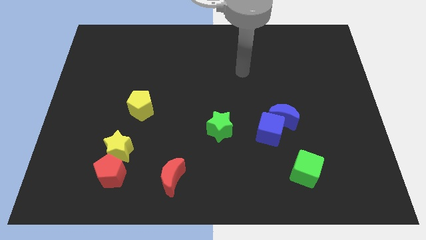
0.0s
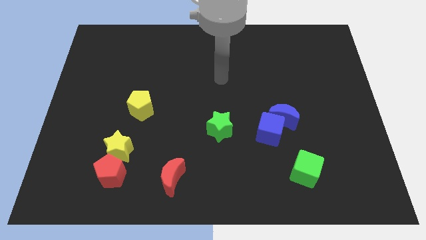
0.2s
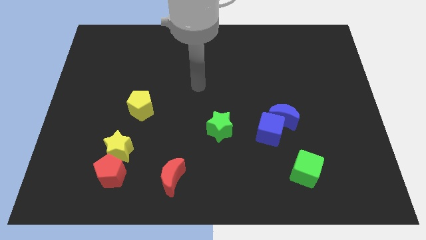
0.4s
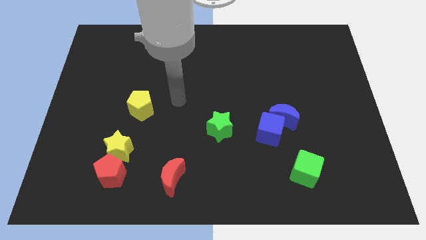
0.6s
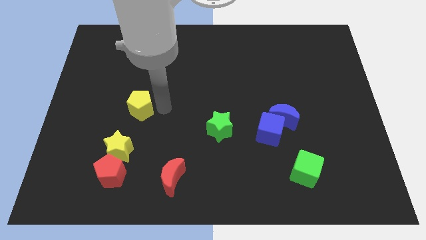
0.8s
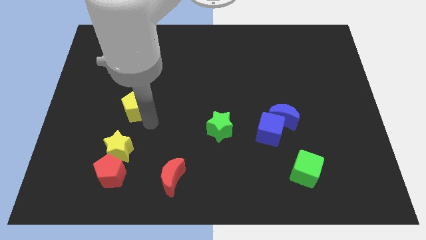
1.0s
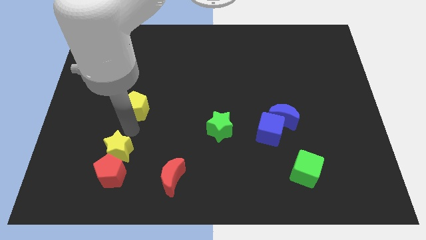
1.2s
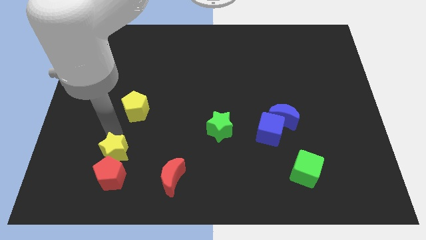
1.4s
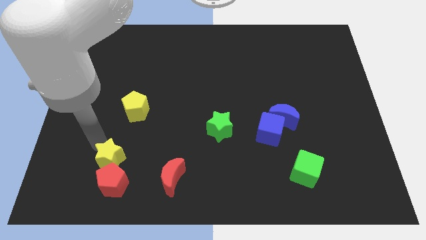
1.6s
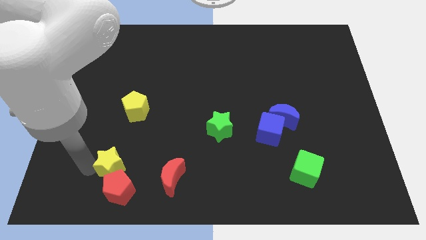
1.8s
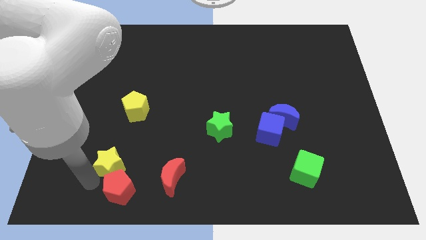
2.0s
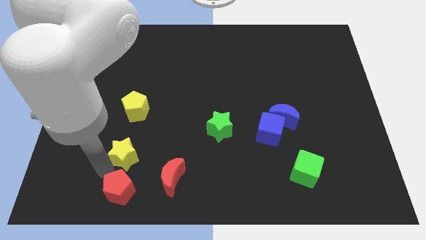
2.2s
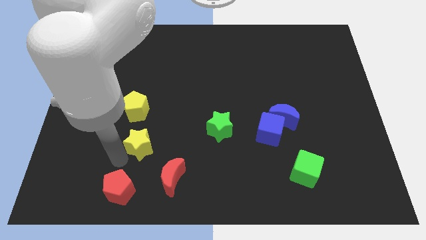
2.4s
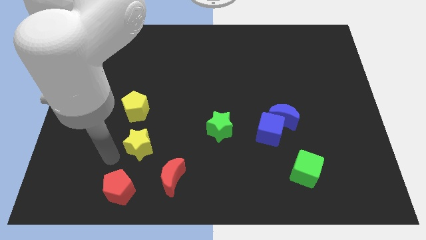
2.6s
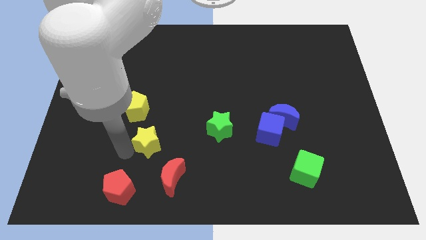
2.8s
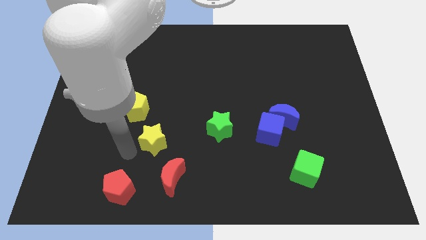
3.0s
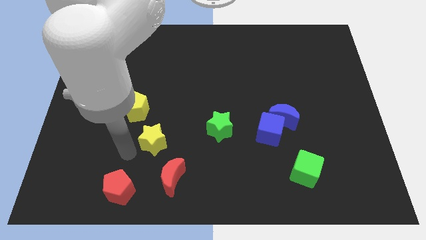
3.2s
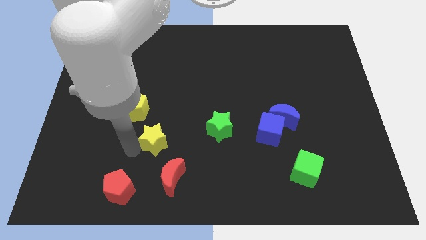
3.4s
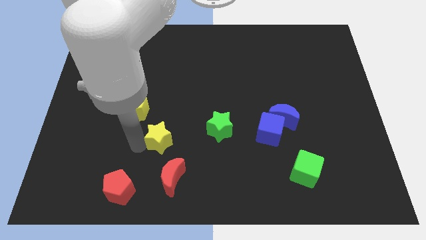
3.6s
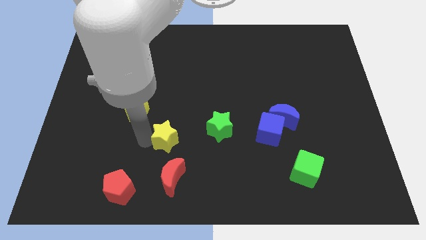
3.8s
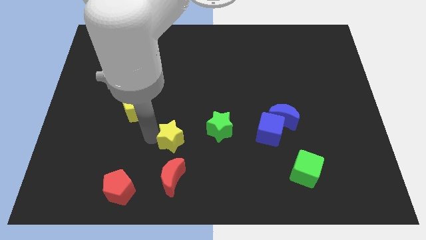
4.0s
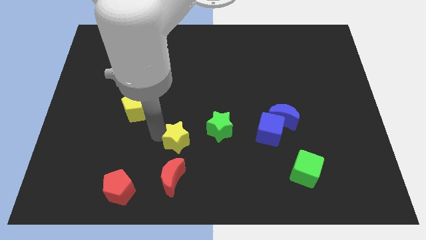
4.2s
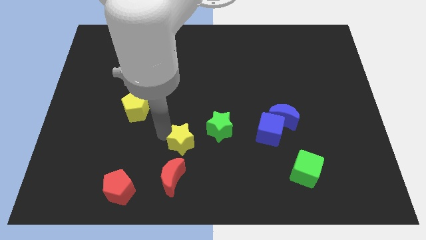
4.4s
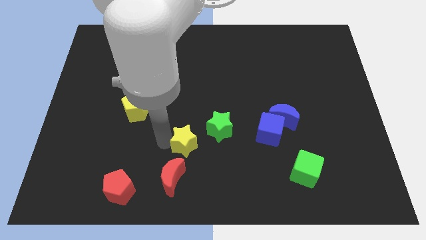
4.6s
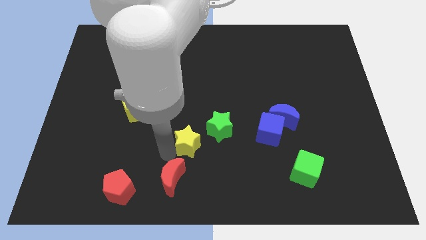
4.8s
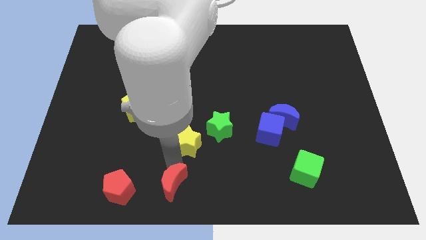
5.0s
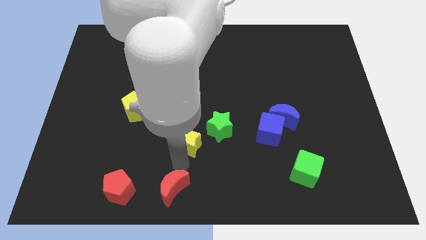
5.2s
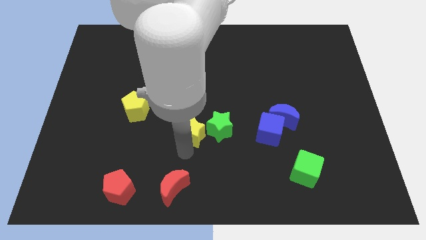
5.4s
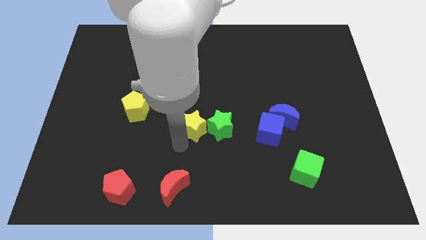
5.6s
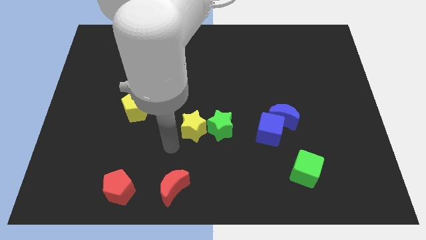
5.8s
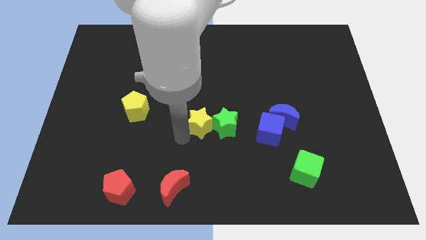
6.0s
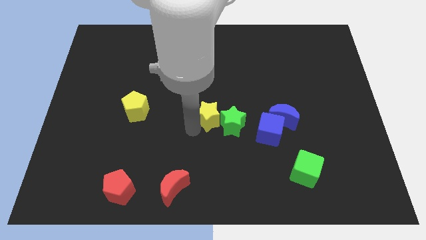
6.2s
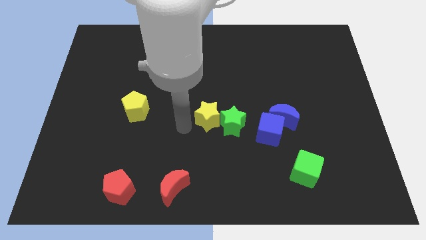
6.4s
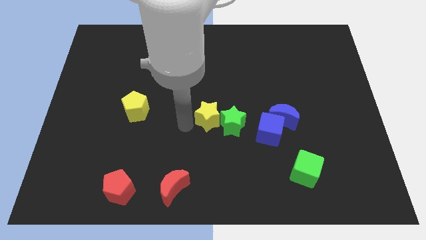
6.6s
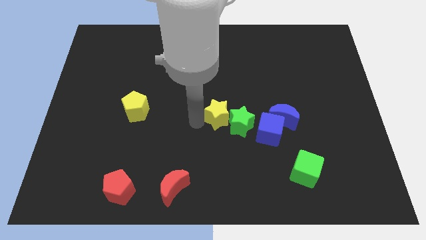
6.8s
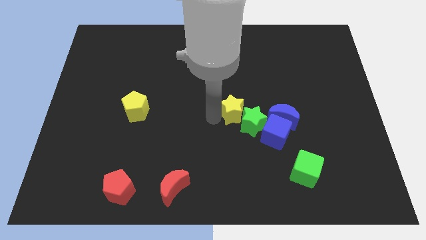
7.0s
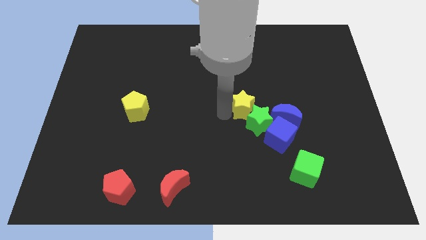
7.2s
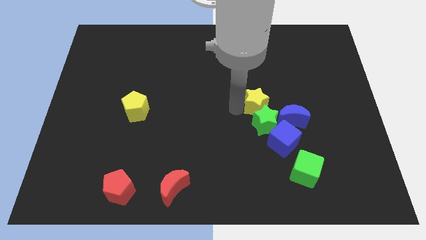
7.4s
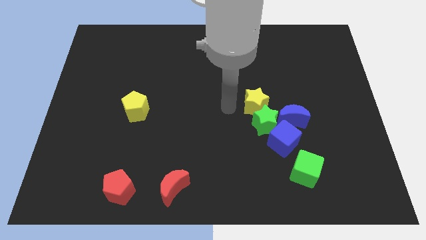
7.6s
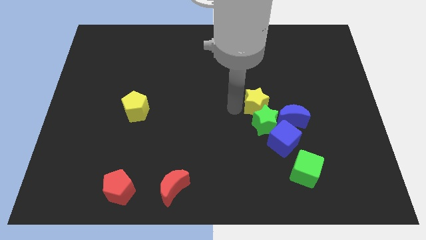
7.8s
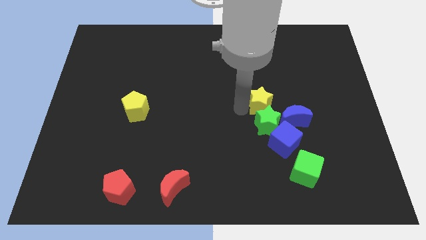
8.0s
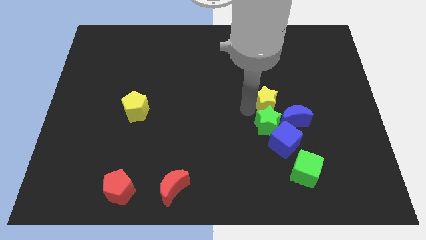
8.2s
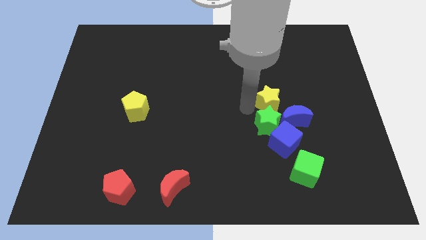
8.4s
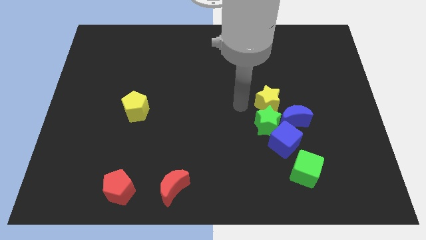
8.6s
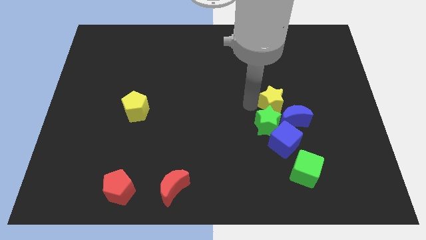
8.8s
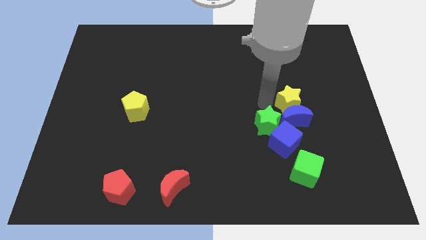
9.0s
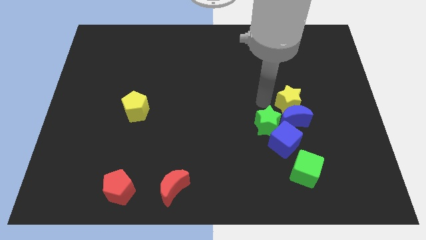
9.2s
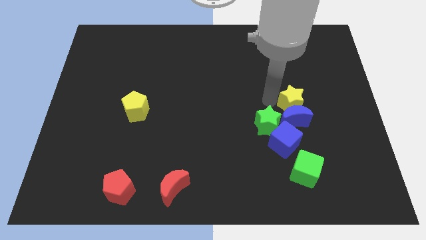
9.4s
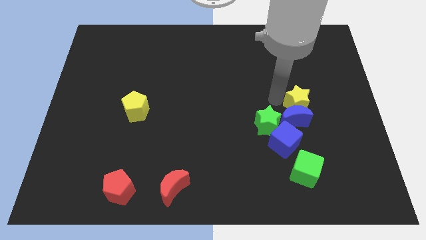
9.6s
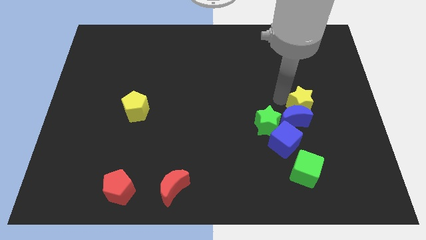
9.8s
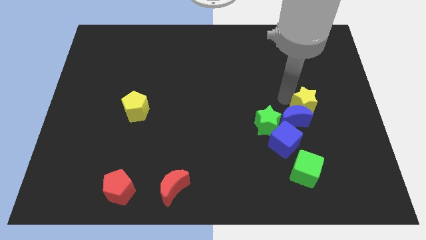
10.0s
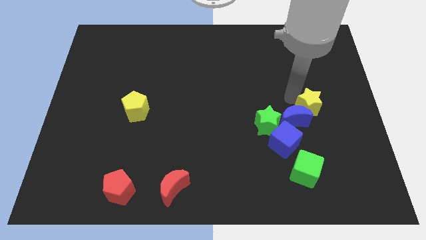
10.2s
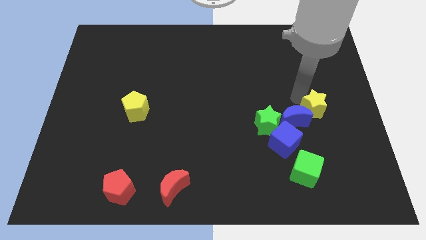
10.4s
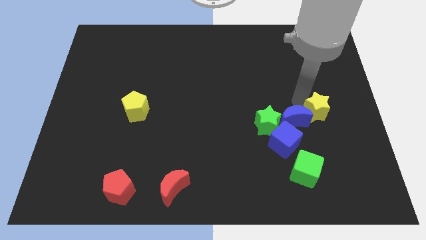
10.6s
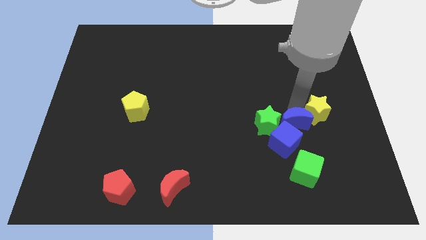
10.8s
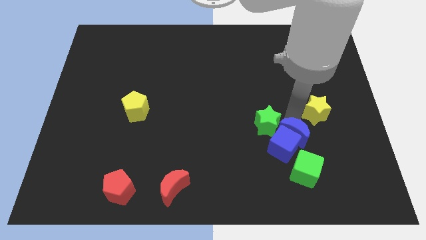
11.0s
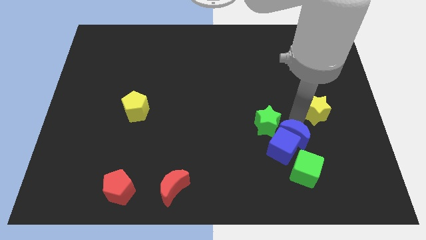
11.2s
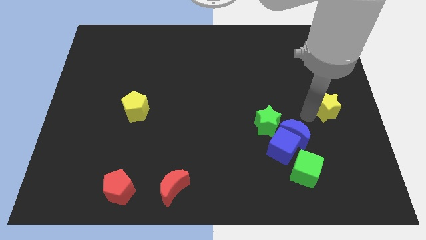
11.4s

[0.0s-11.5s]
put the yellow star to the center right

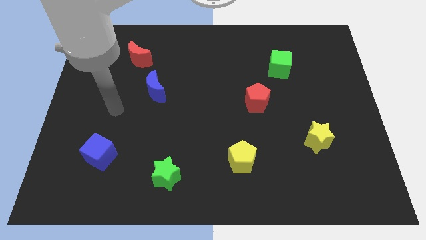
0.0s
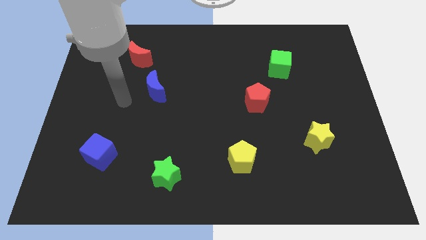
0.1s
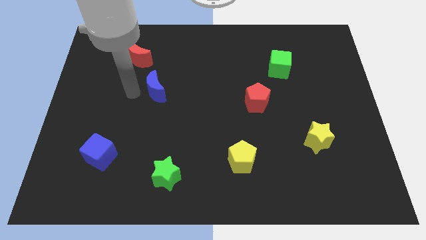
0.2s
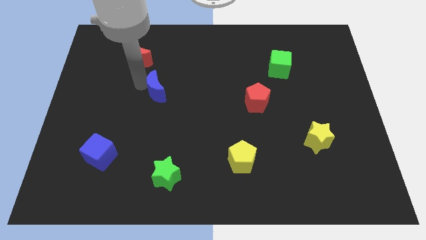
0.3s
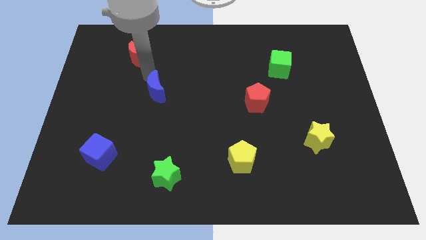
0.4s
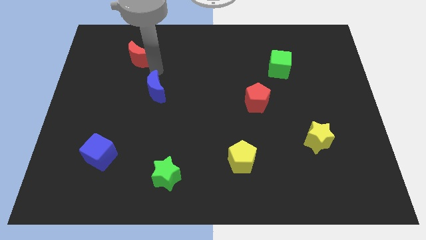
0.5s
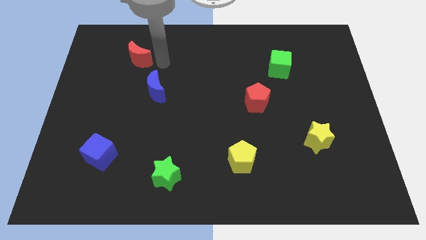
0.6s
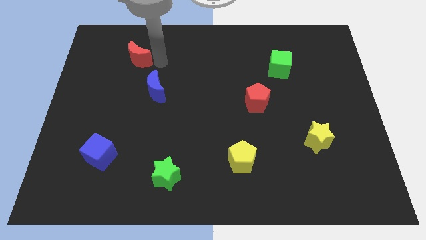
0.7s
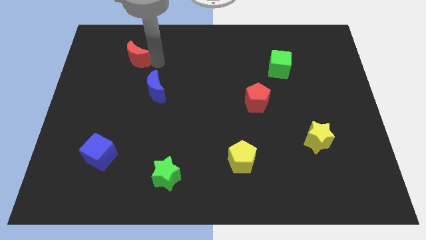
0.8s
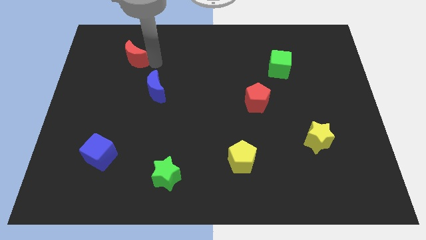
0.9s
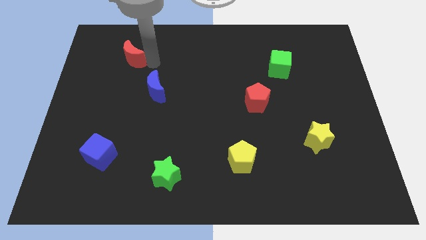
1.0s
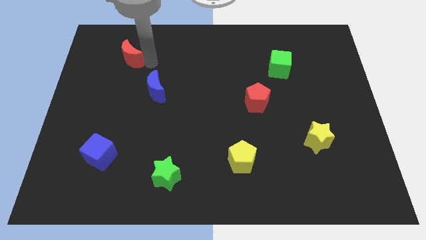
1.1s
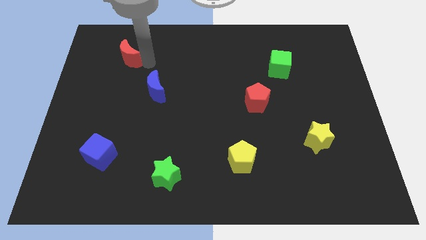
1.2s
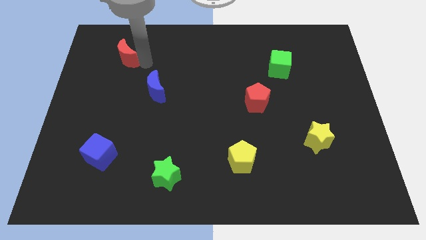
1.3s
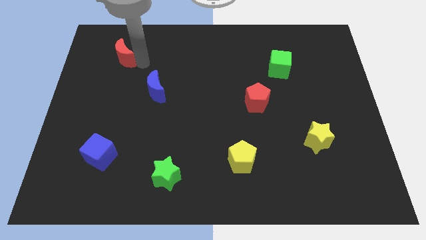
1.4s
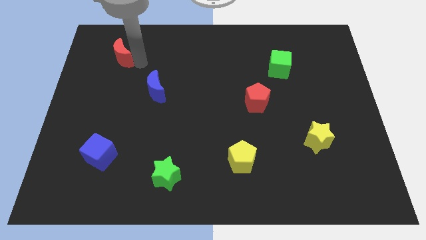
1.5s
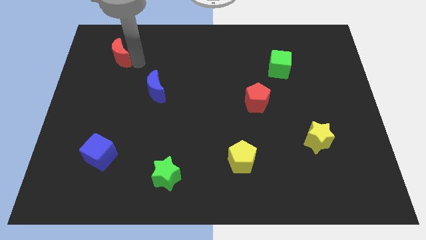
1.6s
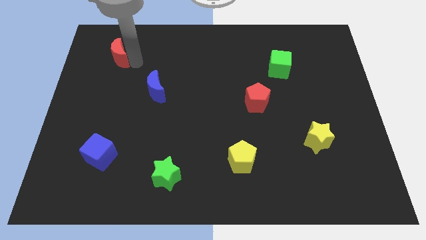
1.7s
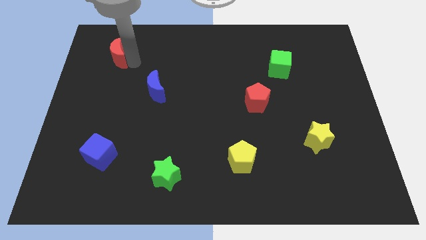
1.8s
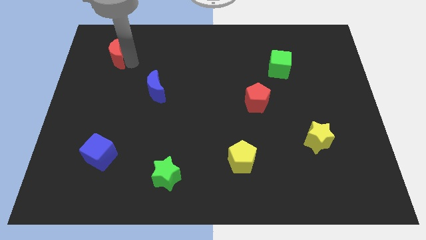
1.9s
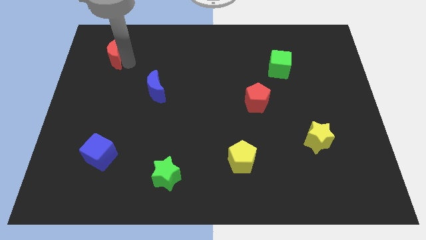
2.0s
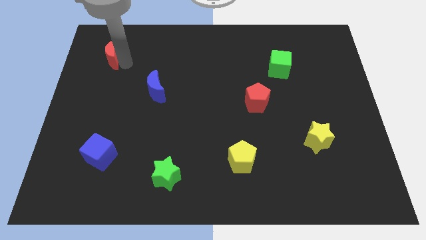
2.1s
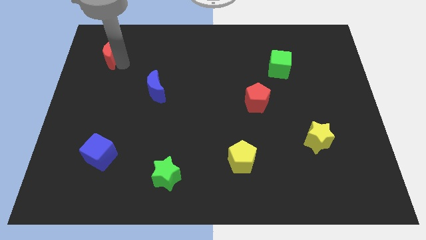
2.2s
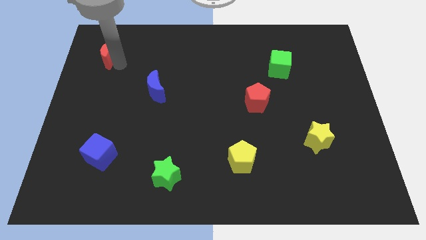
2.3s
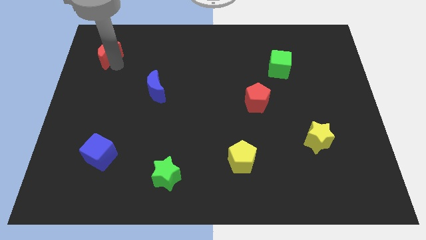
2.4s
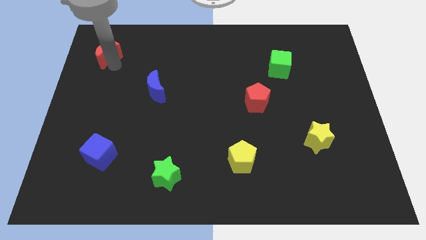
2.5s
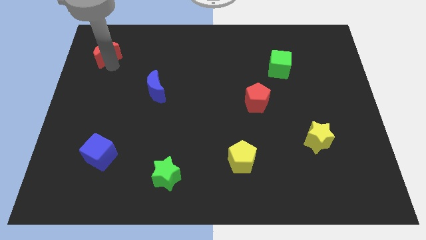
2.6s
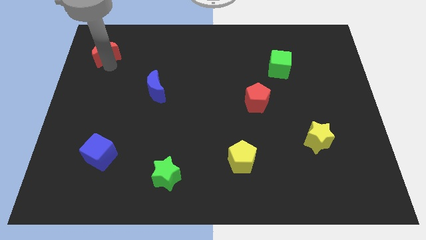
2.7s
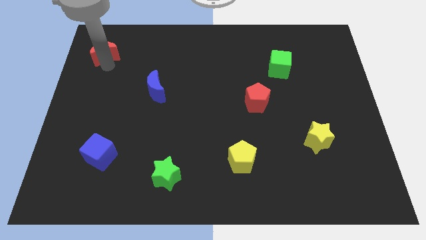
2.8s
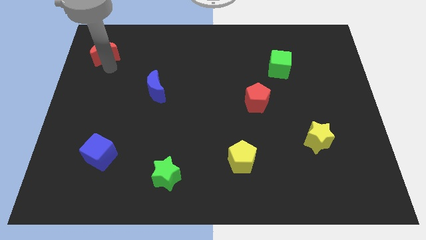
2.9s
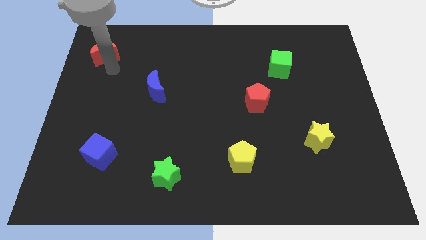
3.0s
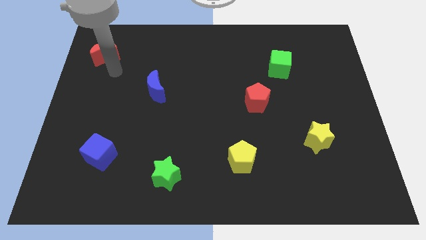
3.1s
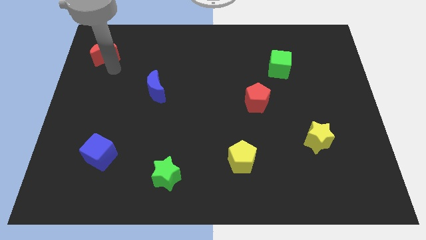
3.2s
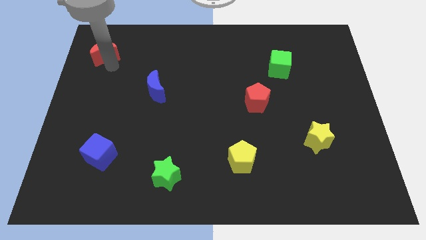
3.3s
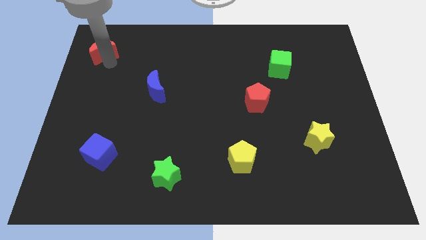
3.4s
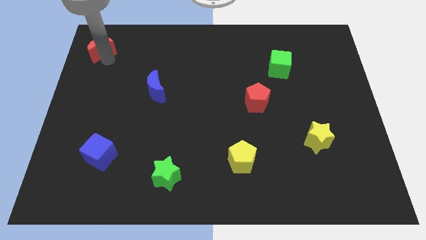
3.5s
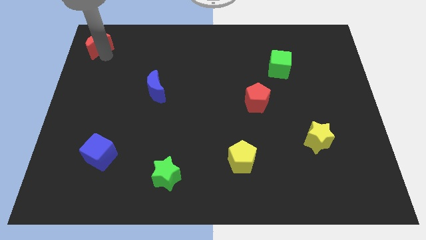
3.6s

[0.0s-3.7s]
push the red moon to the top left of the board
